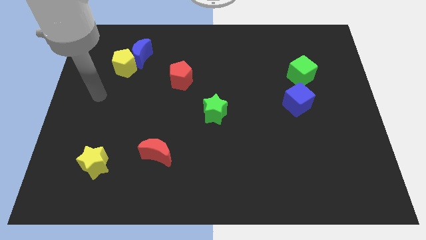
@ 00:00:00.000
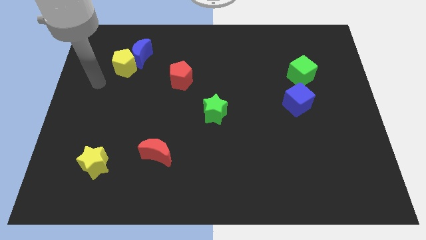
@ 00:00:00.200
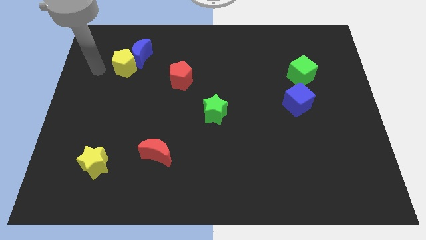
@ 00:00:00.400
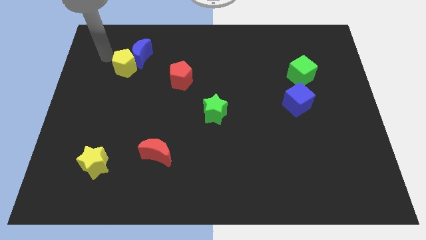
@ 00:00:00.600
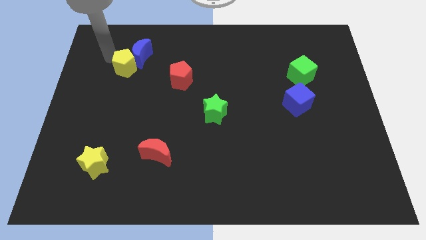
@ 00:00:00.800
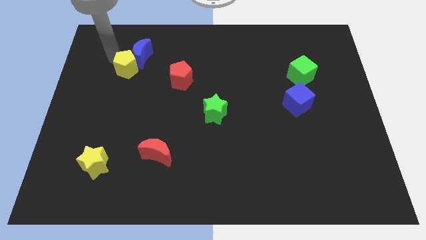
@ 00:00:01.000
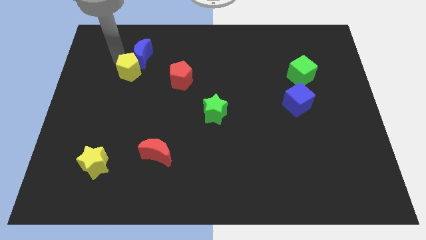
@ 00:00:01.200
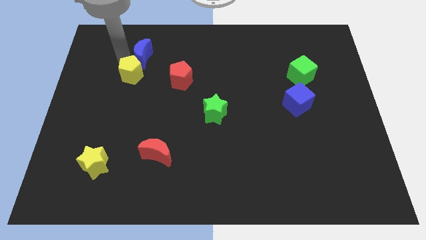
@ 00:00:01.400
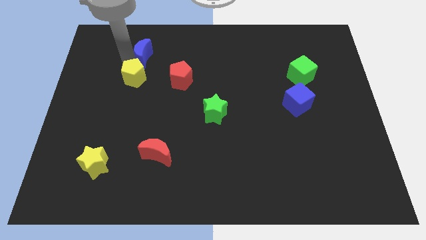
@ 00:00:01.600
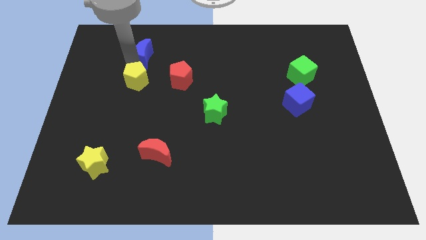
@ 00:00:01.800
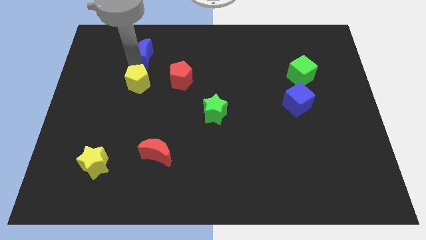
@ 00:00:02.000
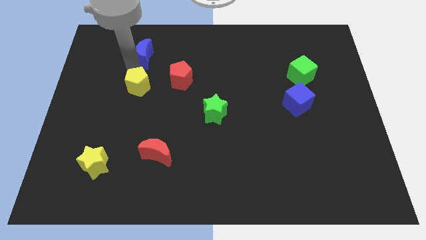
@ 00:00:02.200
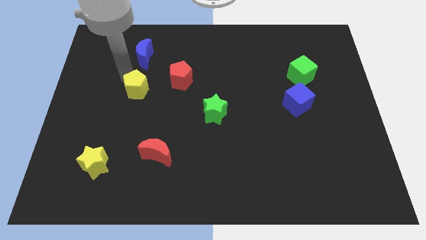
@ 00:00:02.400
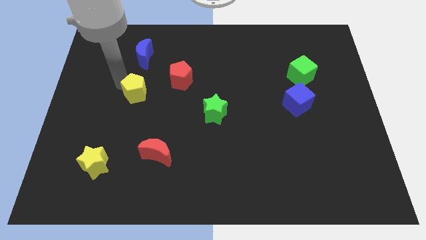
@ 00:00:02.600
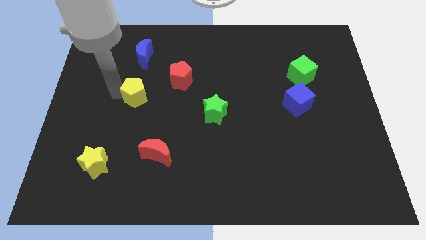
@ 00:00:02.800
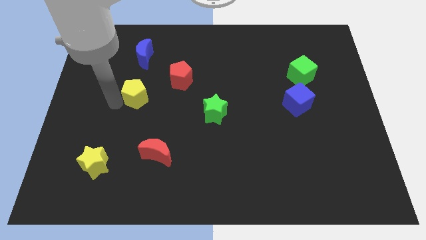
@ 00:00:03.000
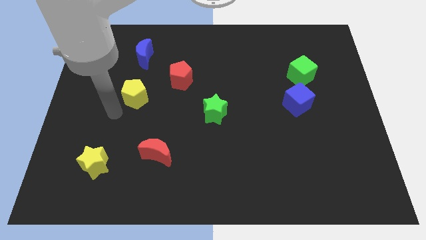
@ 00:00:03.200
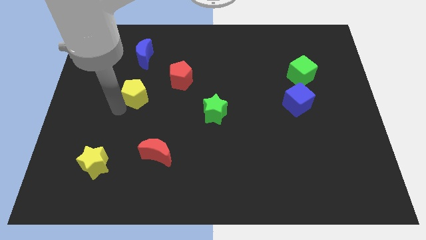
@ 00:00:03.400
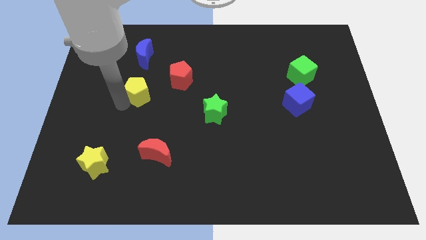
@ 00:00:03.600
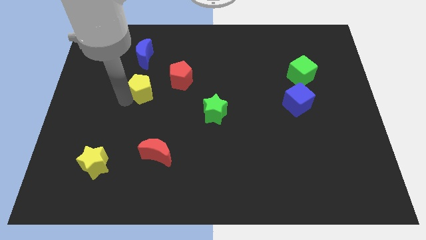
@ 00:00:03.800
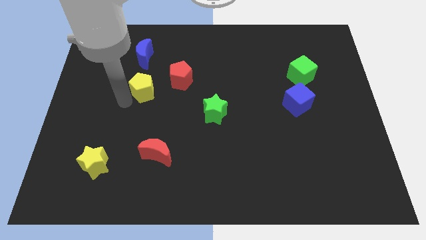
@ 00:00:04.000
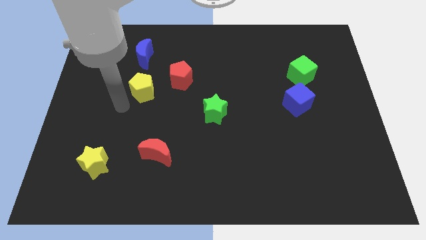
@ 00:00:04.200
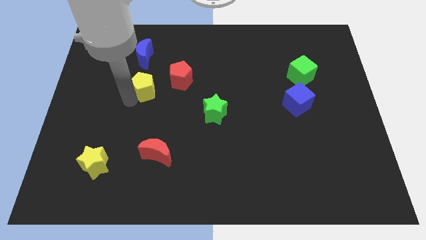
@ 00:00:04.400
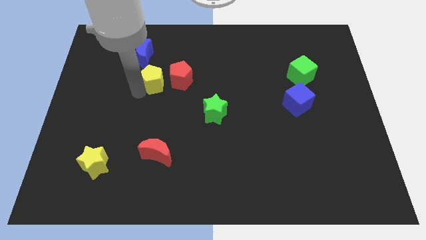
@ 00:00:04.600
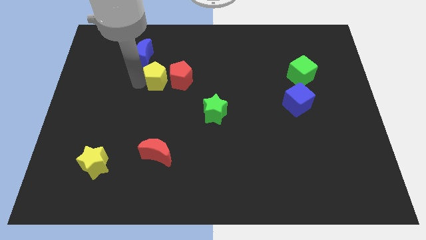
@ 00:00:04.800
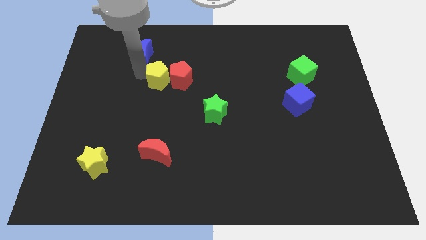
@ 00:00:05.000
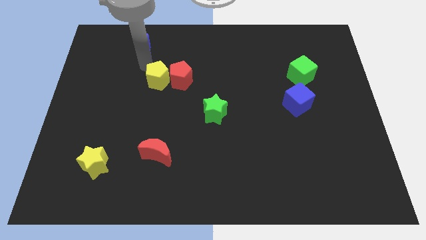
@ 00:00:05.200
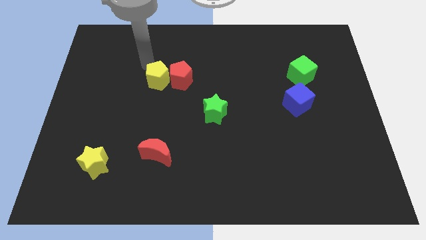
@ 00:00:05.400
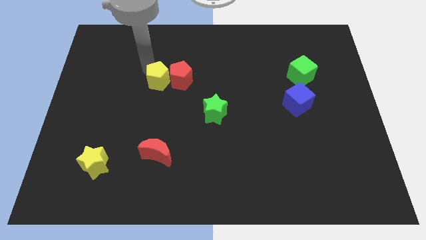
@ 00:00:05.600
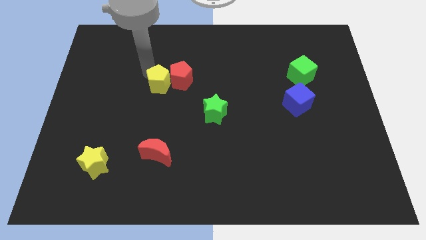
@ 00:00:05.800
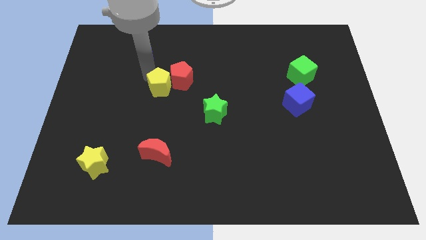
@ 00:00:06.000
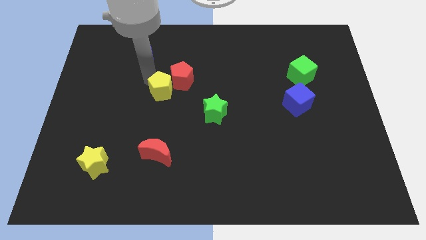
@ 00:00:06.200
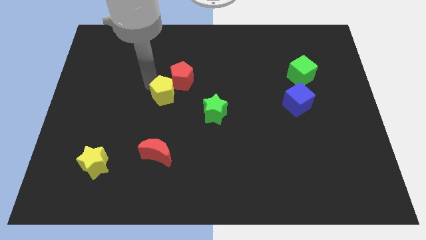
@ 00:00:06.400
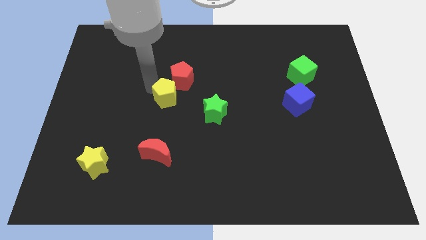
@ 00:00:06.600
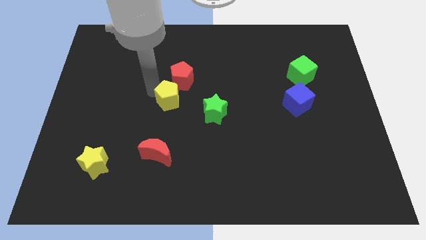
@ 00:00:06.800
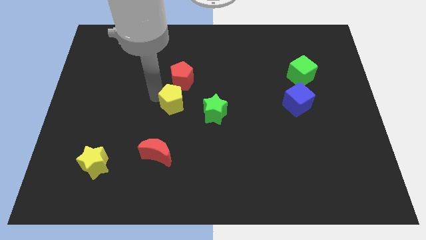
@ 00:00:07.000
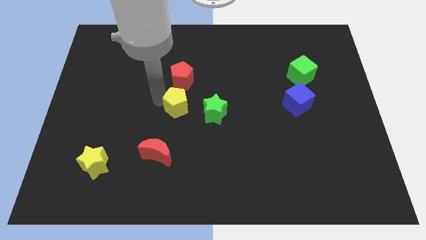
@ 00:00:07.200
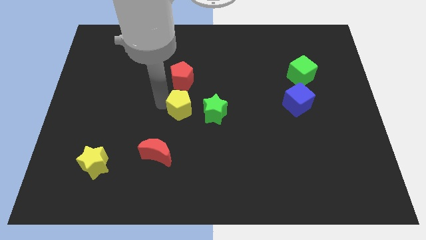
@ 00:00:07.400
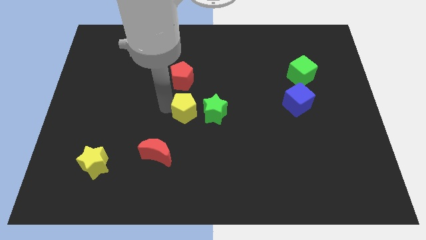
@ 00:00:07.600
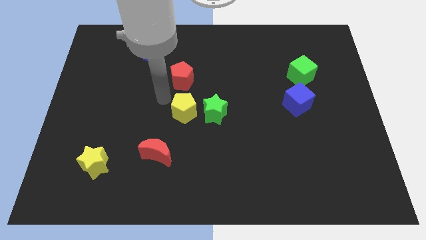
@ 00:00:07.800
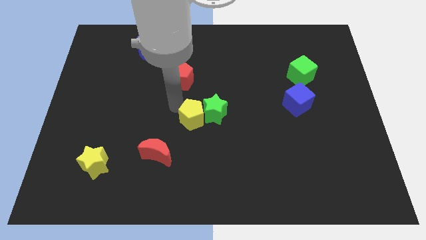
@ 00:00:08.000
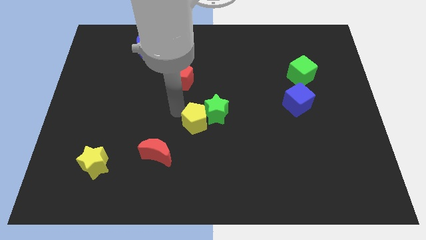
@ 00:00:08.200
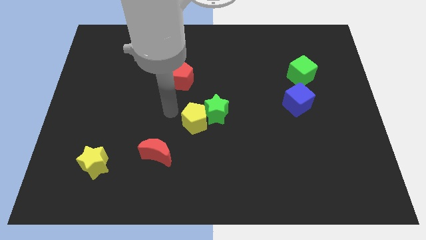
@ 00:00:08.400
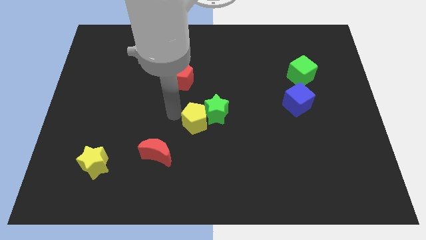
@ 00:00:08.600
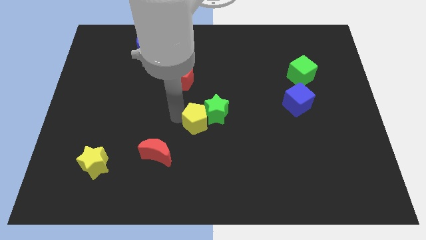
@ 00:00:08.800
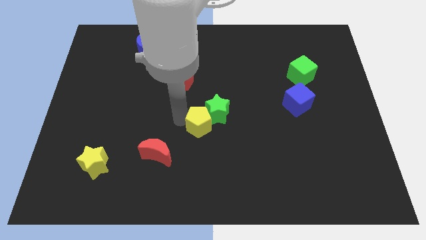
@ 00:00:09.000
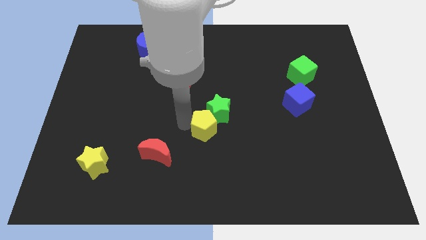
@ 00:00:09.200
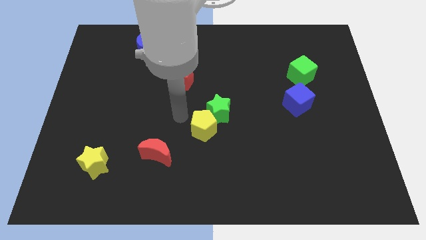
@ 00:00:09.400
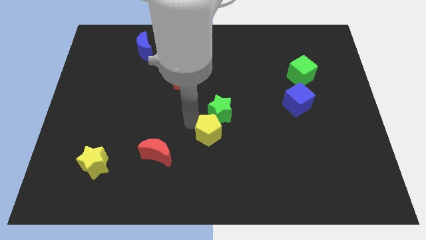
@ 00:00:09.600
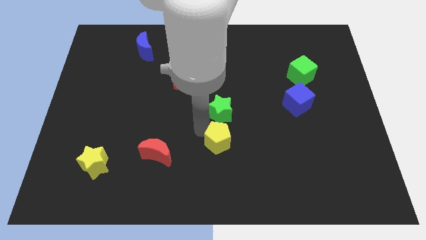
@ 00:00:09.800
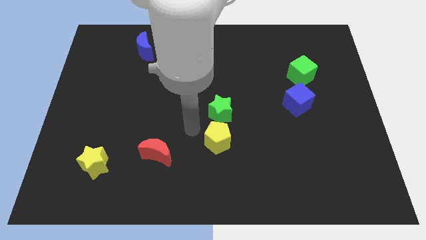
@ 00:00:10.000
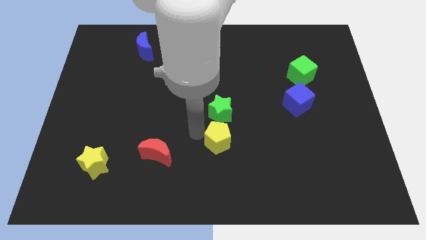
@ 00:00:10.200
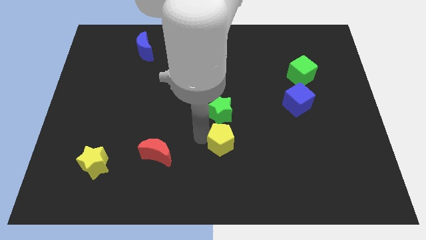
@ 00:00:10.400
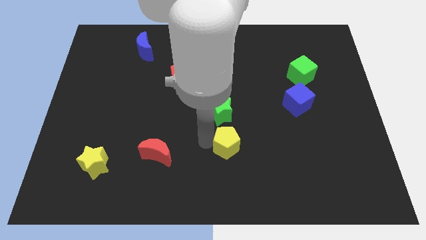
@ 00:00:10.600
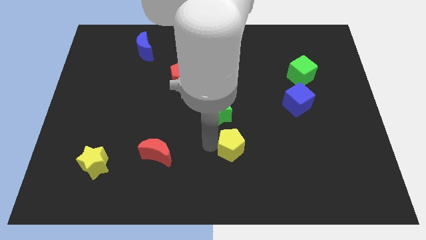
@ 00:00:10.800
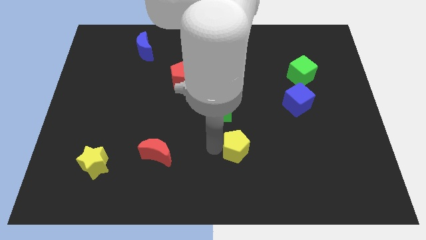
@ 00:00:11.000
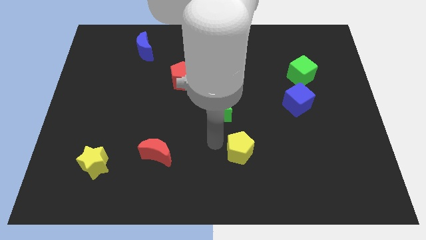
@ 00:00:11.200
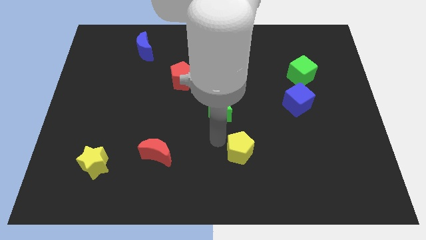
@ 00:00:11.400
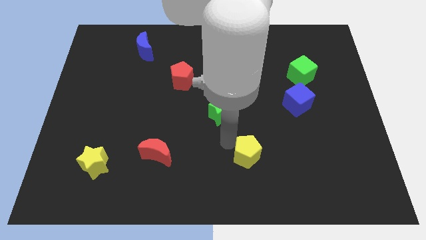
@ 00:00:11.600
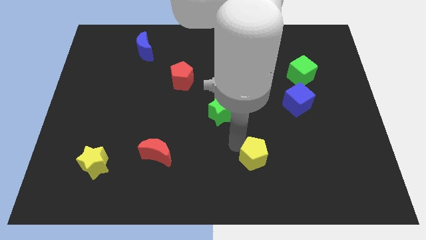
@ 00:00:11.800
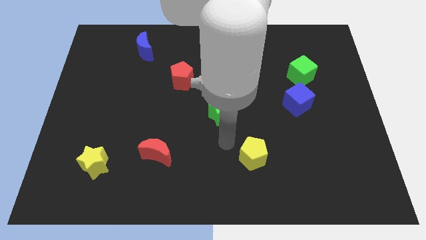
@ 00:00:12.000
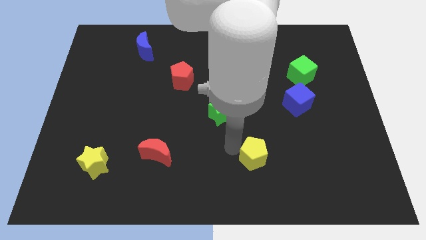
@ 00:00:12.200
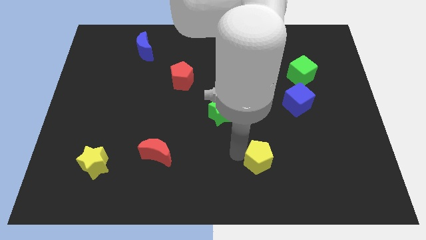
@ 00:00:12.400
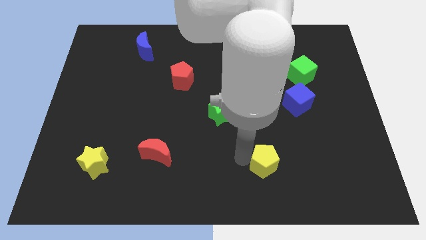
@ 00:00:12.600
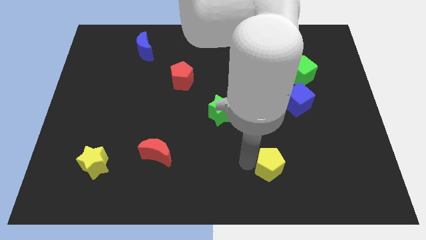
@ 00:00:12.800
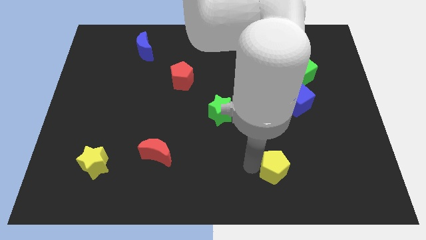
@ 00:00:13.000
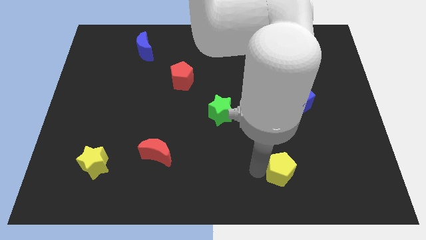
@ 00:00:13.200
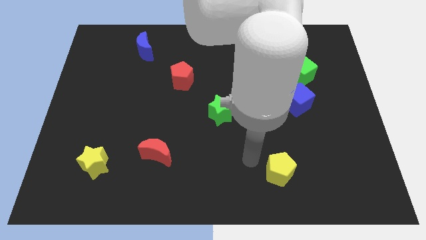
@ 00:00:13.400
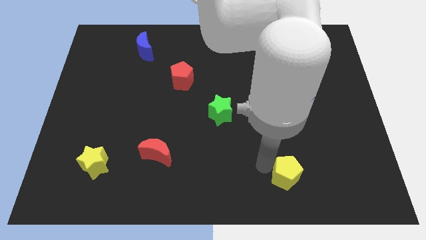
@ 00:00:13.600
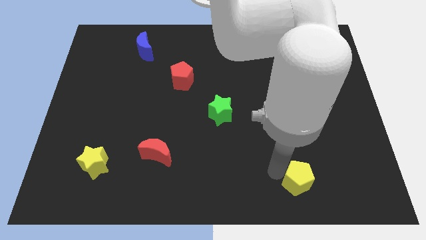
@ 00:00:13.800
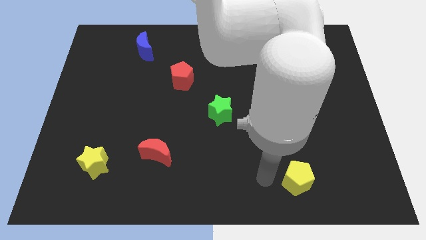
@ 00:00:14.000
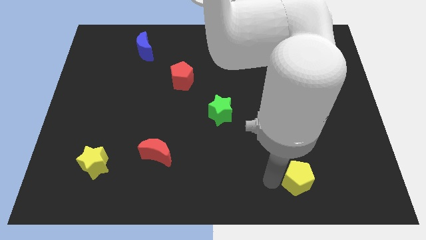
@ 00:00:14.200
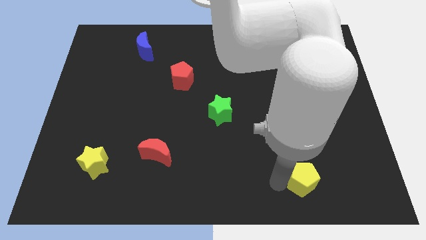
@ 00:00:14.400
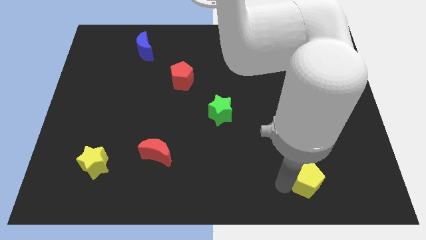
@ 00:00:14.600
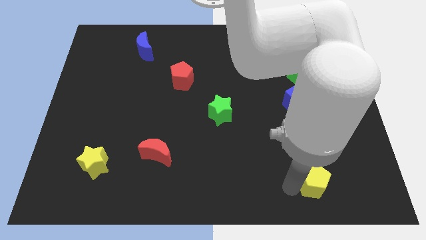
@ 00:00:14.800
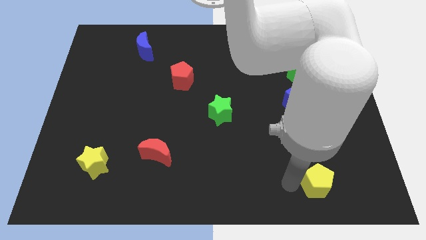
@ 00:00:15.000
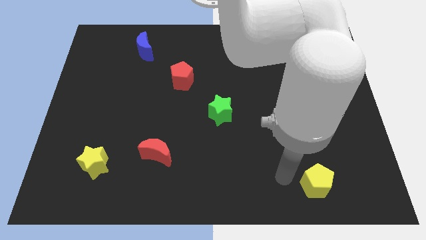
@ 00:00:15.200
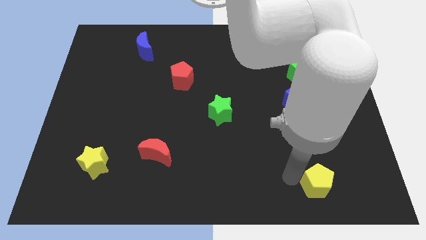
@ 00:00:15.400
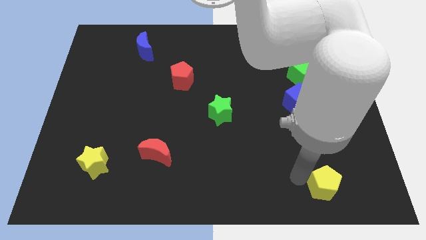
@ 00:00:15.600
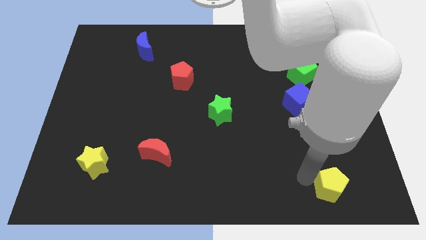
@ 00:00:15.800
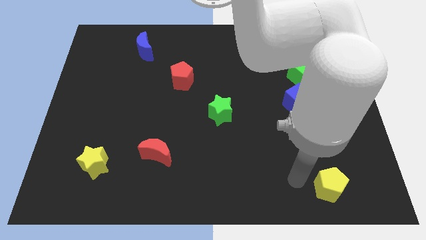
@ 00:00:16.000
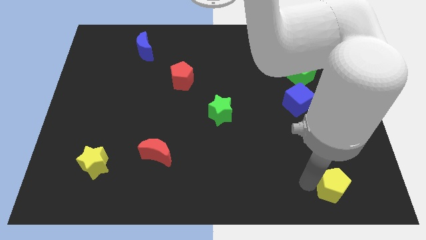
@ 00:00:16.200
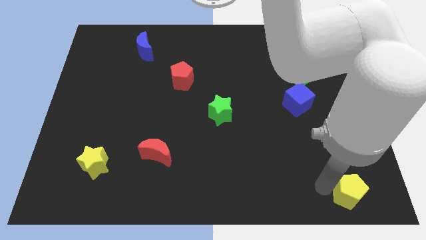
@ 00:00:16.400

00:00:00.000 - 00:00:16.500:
put the yellow pentagon to the bottom right of the board
